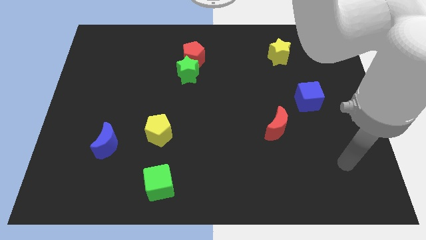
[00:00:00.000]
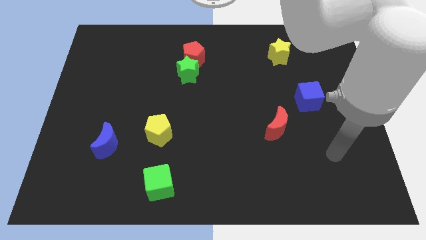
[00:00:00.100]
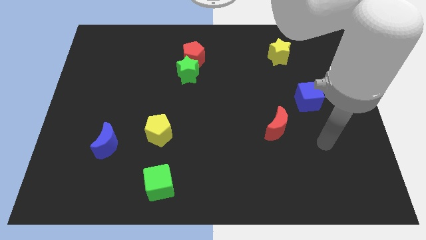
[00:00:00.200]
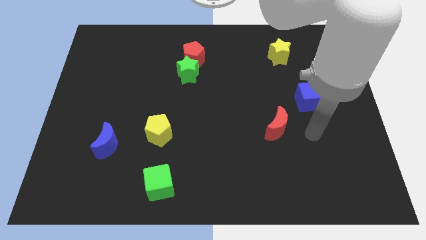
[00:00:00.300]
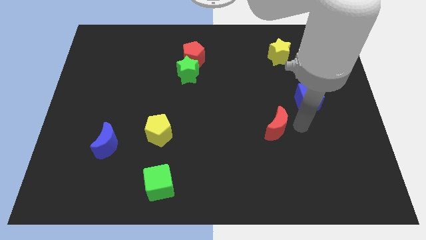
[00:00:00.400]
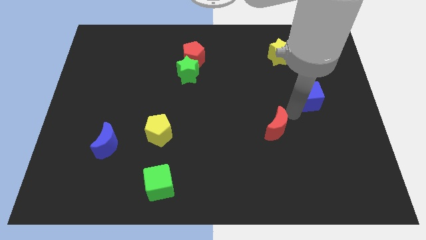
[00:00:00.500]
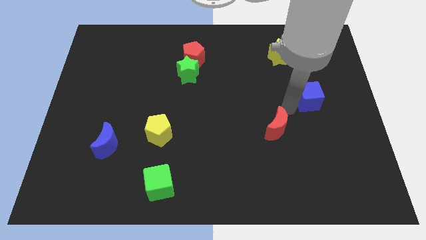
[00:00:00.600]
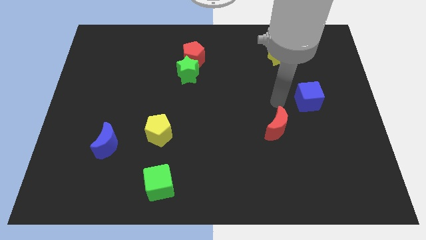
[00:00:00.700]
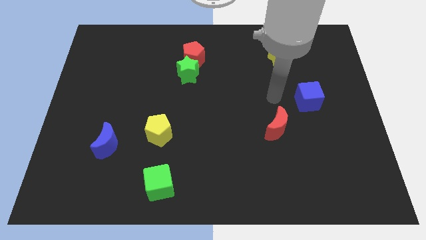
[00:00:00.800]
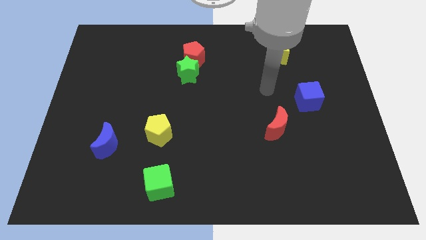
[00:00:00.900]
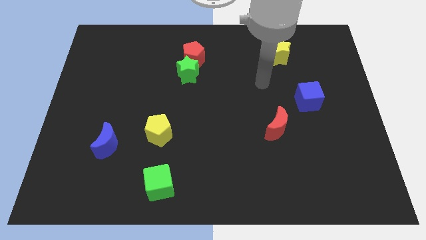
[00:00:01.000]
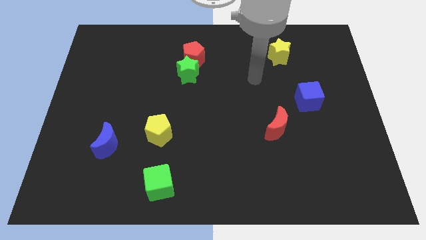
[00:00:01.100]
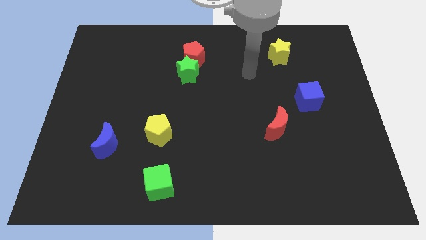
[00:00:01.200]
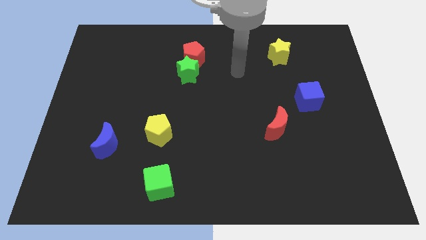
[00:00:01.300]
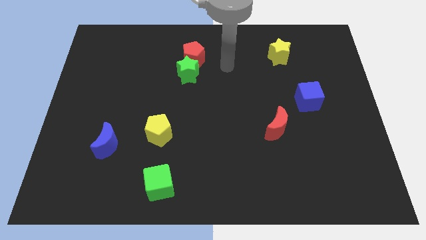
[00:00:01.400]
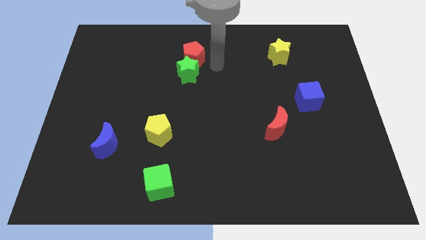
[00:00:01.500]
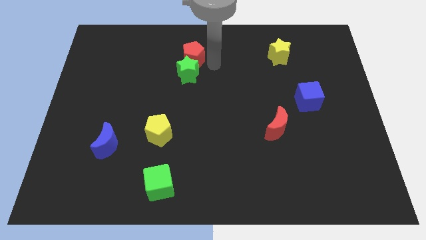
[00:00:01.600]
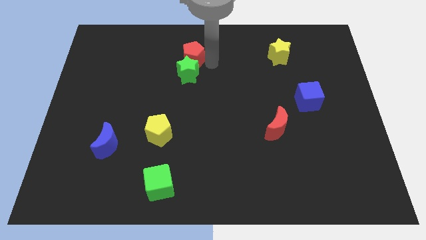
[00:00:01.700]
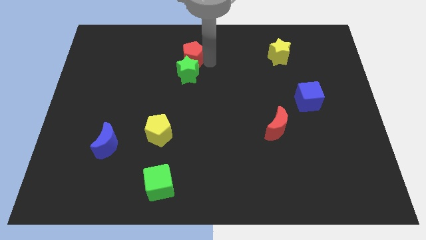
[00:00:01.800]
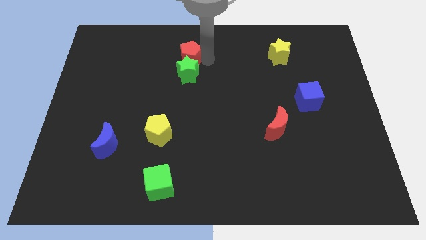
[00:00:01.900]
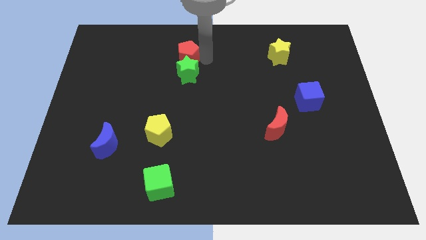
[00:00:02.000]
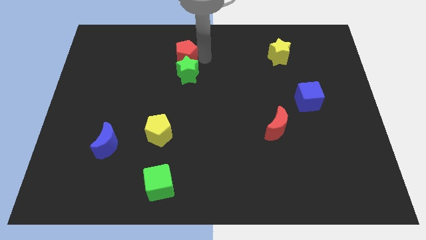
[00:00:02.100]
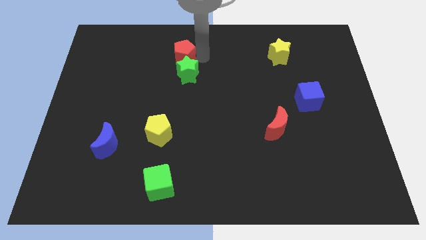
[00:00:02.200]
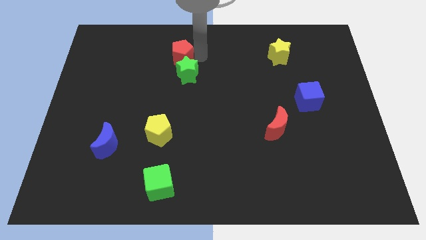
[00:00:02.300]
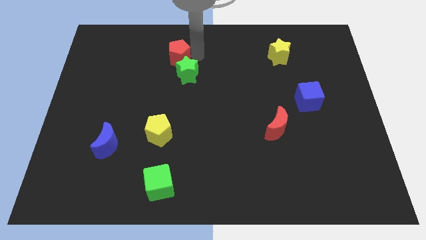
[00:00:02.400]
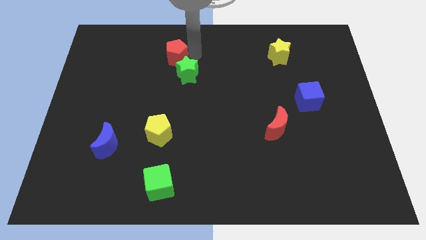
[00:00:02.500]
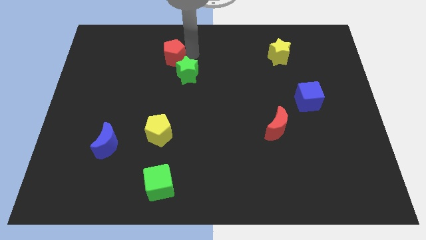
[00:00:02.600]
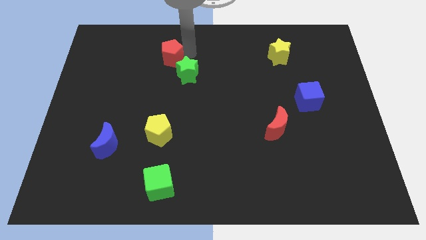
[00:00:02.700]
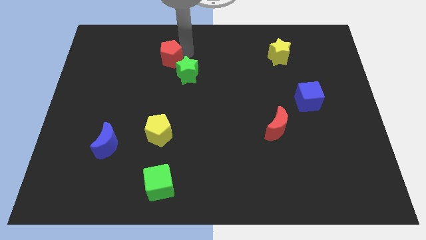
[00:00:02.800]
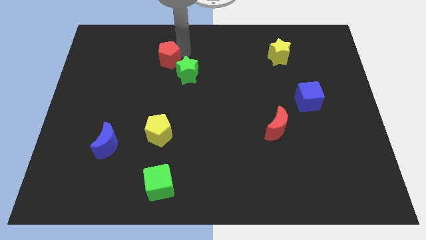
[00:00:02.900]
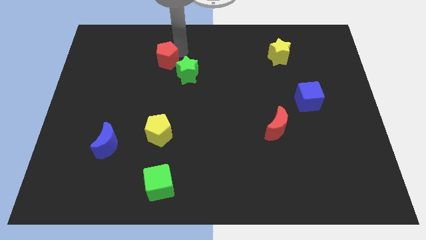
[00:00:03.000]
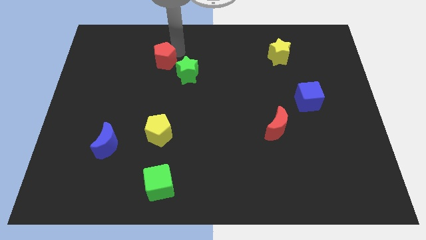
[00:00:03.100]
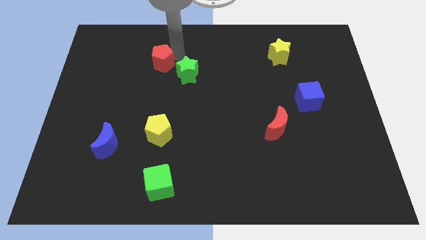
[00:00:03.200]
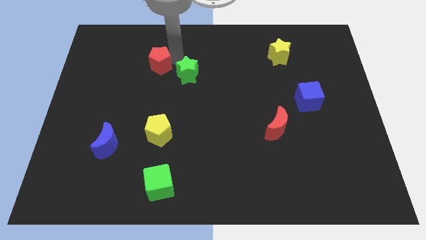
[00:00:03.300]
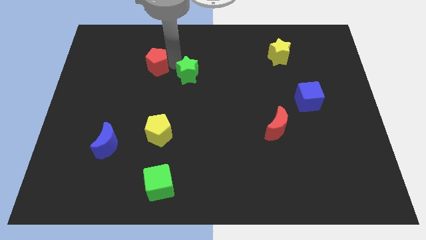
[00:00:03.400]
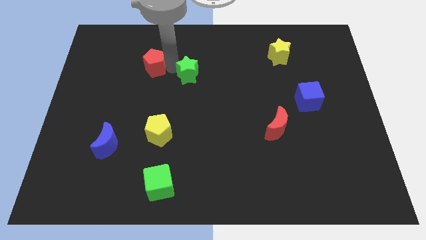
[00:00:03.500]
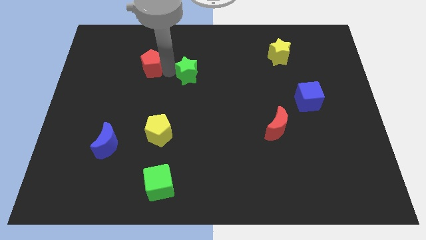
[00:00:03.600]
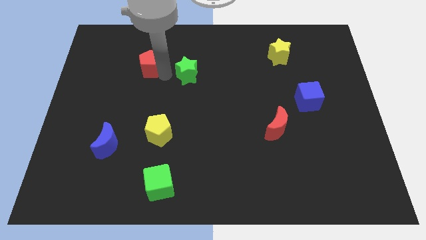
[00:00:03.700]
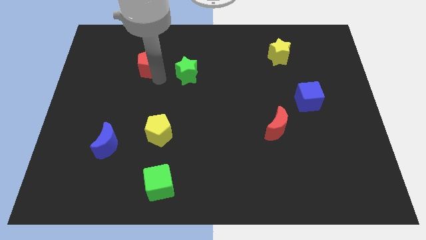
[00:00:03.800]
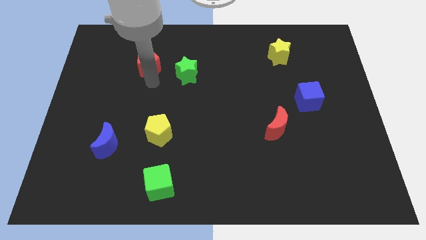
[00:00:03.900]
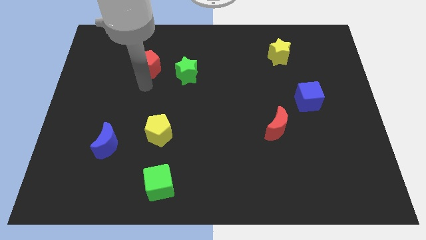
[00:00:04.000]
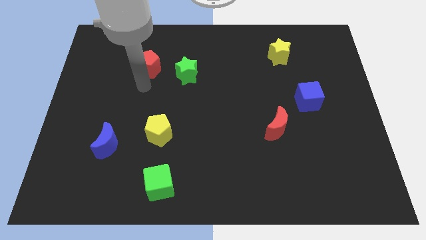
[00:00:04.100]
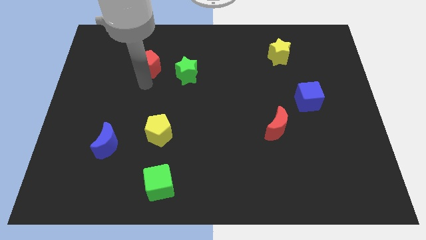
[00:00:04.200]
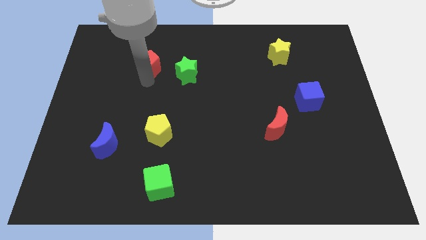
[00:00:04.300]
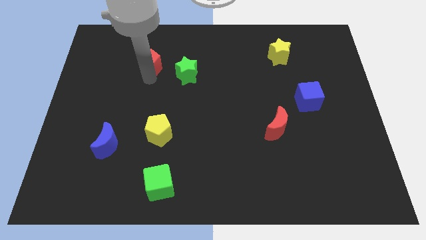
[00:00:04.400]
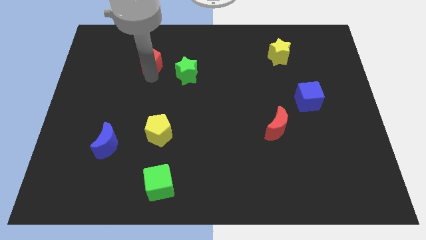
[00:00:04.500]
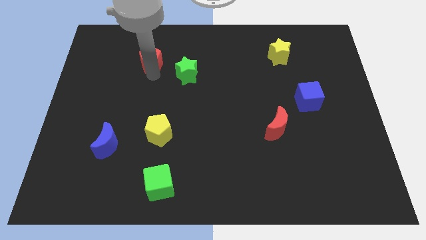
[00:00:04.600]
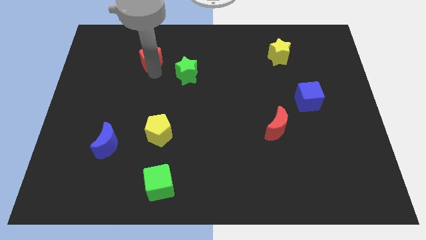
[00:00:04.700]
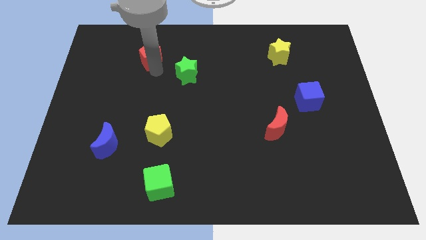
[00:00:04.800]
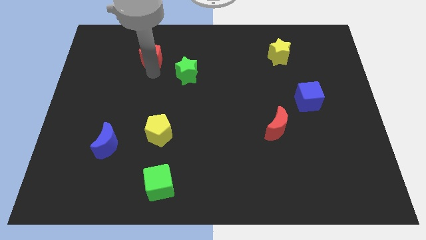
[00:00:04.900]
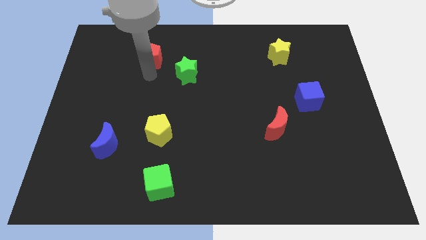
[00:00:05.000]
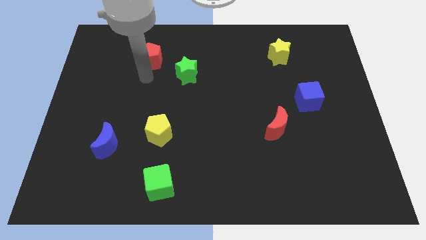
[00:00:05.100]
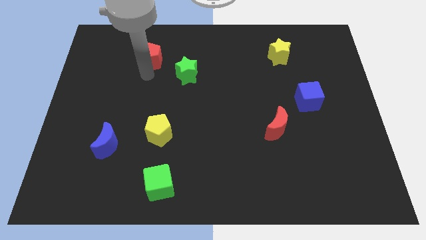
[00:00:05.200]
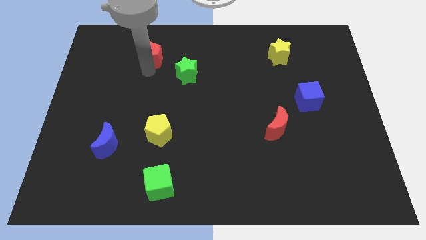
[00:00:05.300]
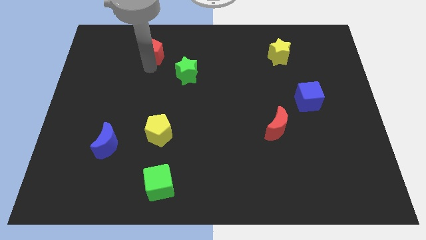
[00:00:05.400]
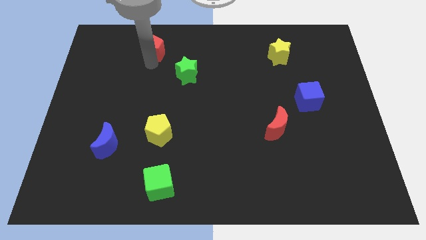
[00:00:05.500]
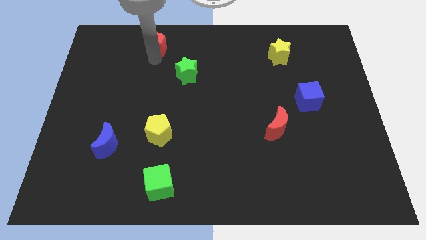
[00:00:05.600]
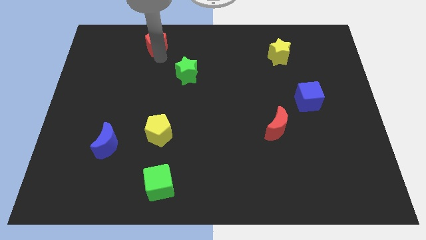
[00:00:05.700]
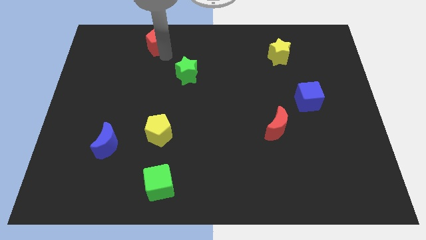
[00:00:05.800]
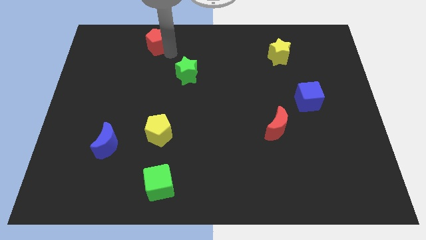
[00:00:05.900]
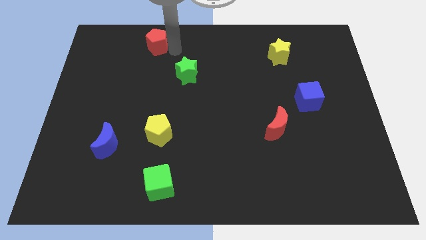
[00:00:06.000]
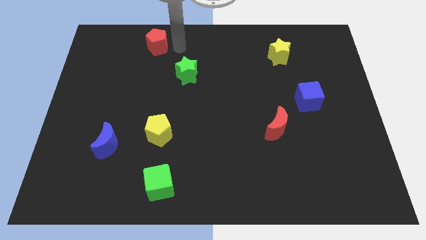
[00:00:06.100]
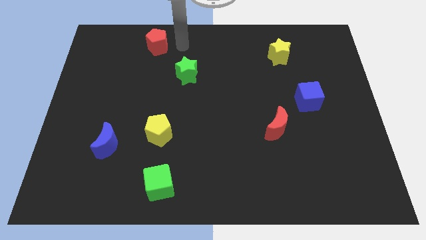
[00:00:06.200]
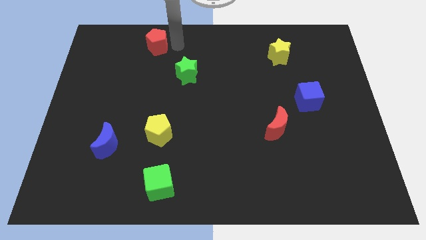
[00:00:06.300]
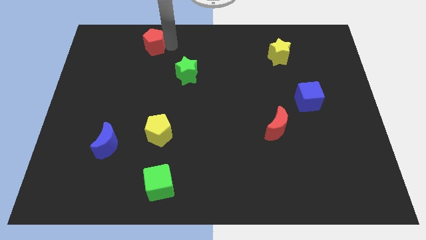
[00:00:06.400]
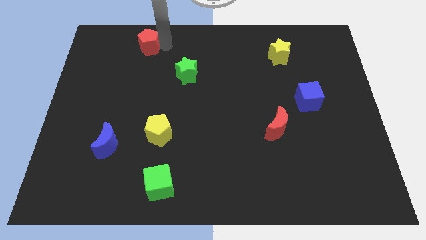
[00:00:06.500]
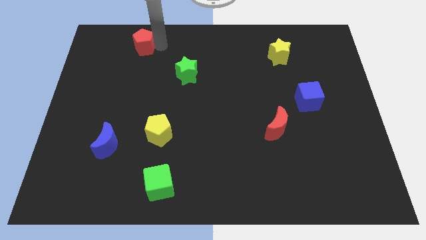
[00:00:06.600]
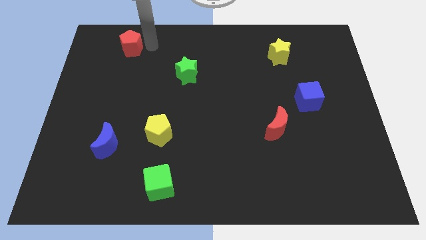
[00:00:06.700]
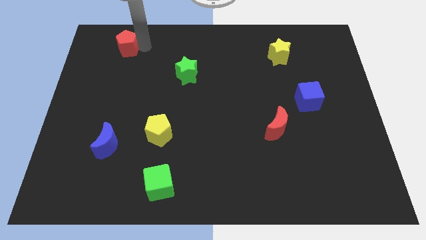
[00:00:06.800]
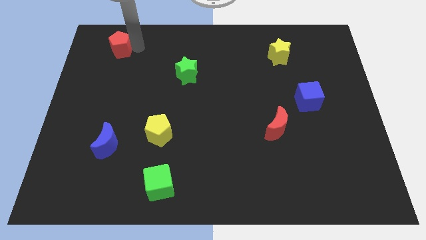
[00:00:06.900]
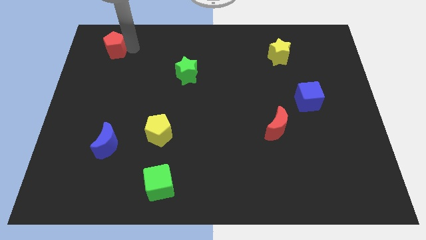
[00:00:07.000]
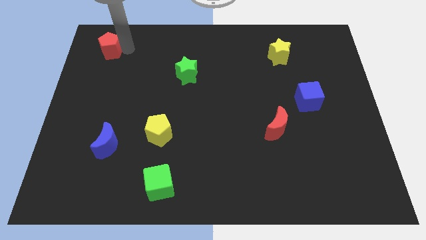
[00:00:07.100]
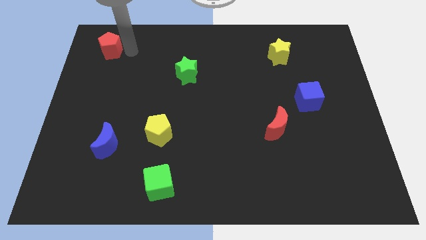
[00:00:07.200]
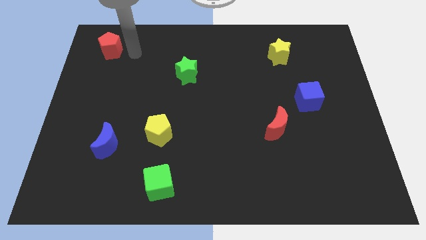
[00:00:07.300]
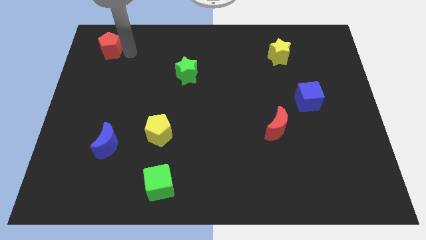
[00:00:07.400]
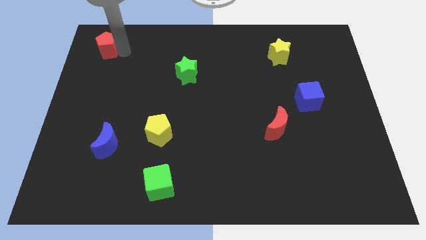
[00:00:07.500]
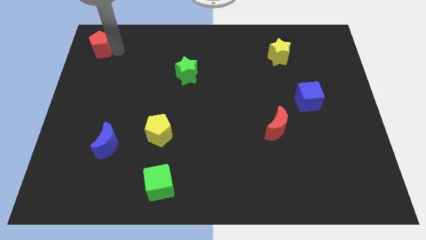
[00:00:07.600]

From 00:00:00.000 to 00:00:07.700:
slide the red pentagon to the top left corner

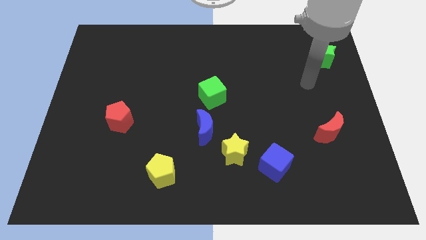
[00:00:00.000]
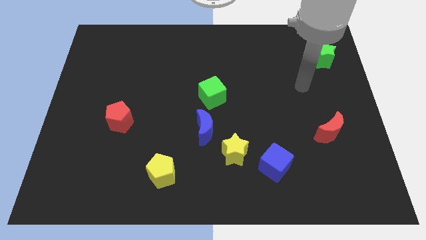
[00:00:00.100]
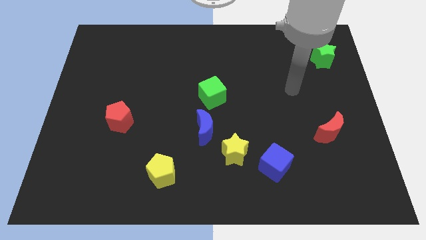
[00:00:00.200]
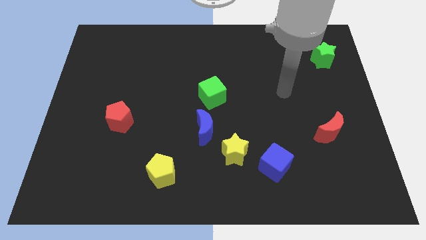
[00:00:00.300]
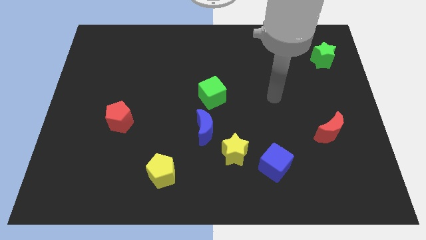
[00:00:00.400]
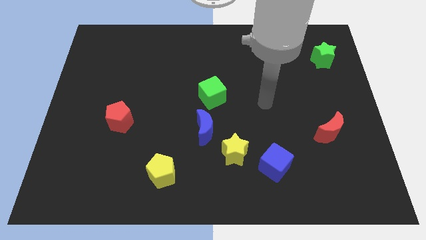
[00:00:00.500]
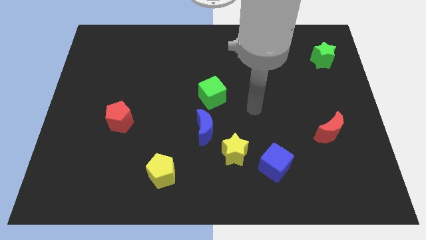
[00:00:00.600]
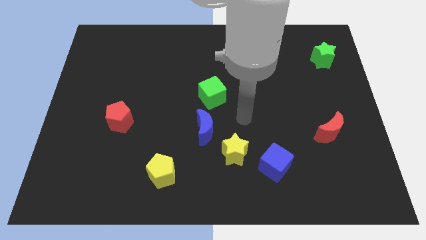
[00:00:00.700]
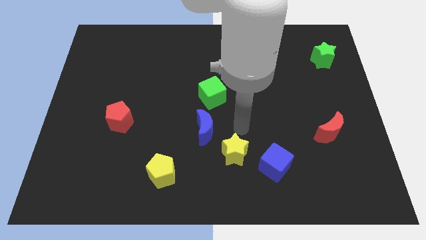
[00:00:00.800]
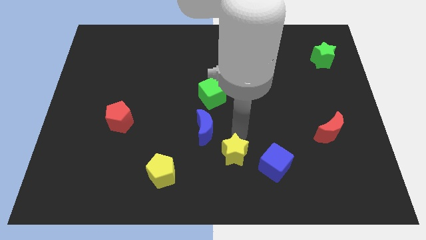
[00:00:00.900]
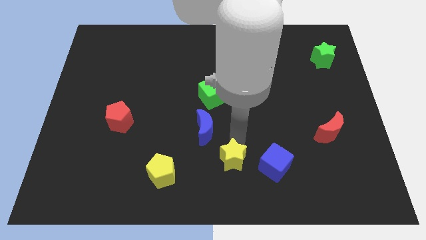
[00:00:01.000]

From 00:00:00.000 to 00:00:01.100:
put the yellow star to the bottom side
